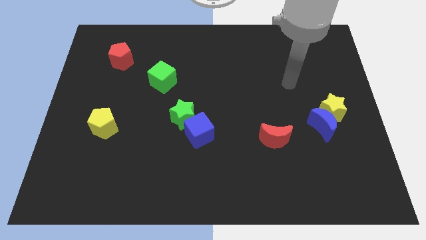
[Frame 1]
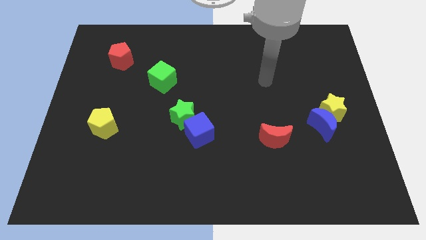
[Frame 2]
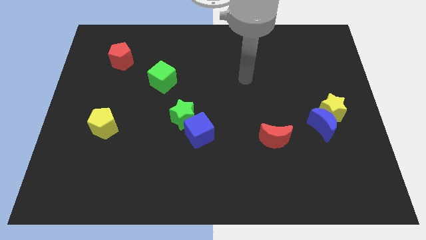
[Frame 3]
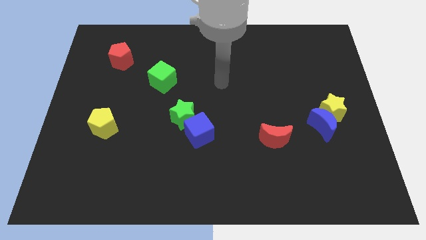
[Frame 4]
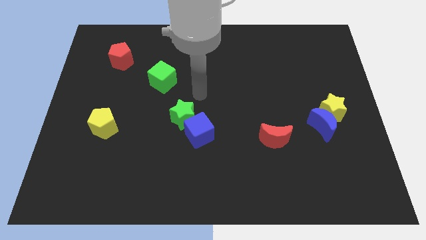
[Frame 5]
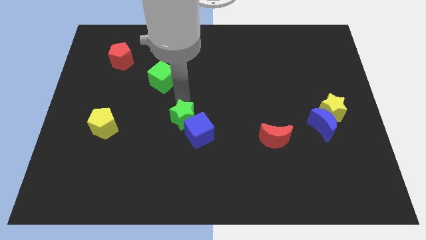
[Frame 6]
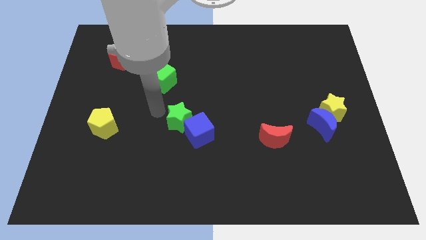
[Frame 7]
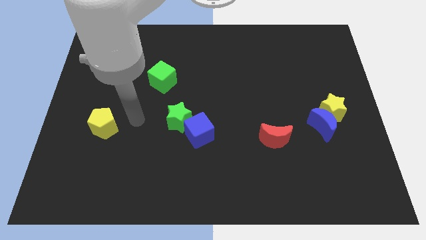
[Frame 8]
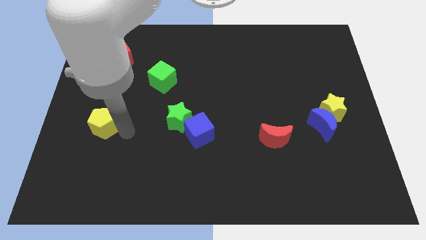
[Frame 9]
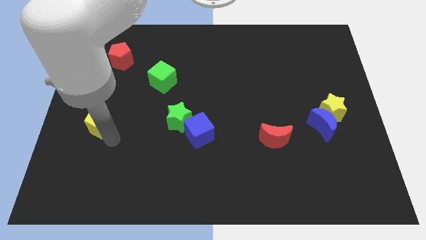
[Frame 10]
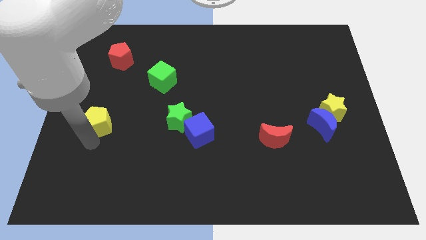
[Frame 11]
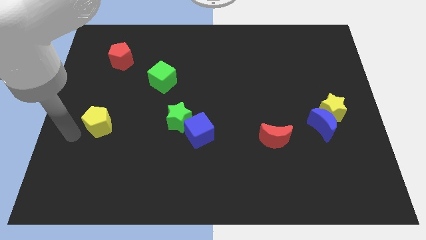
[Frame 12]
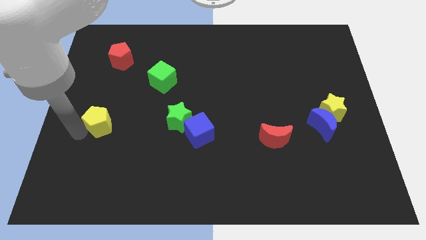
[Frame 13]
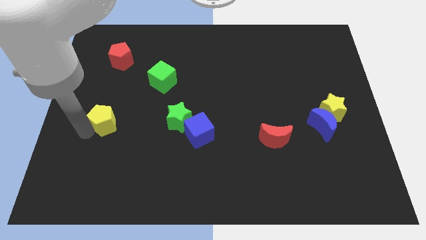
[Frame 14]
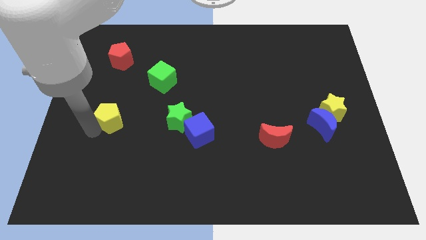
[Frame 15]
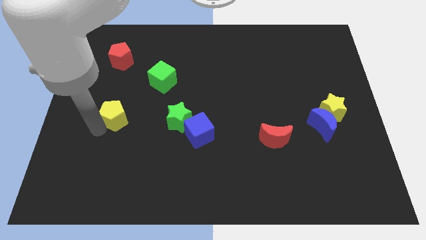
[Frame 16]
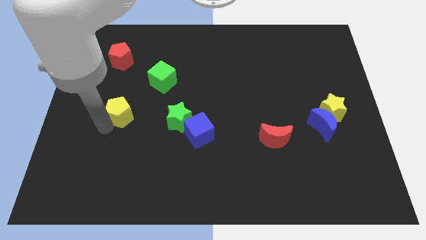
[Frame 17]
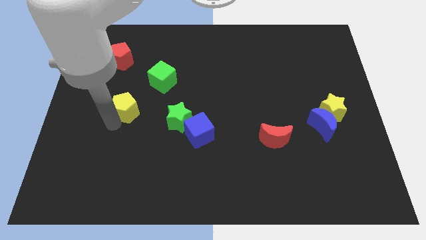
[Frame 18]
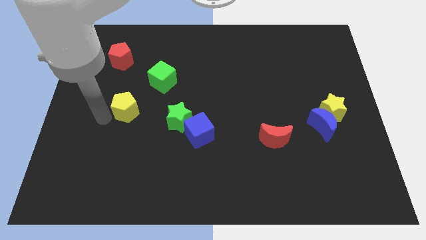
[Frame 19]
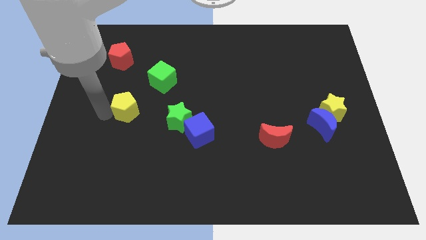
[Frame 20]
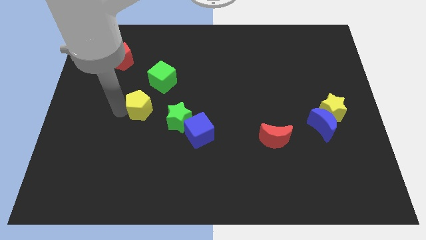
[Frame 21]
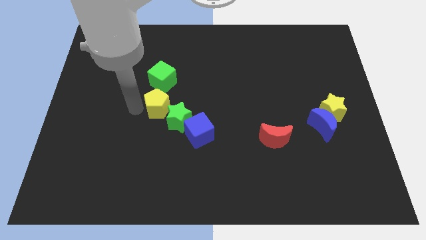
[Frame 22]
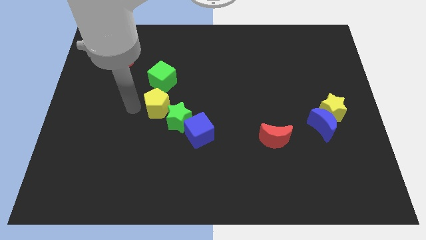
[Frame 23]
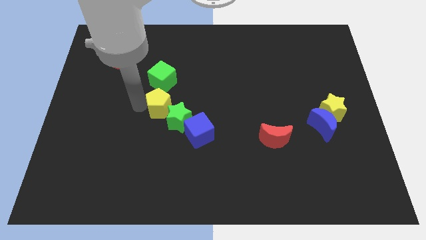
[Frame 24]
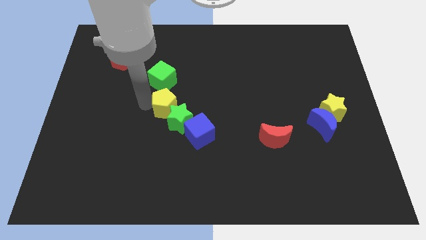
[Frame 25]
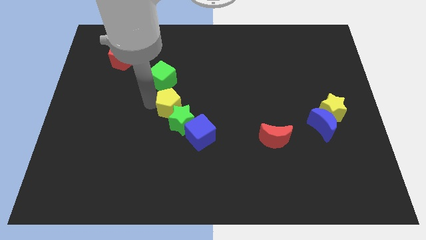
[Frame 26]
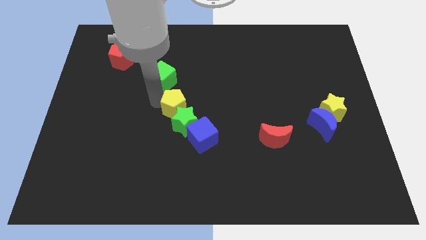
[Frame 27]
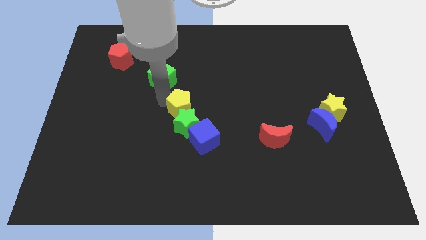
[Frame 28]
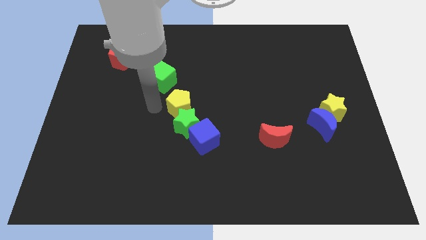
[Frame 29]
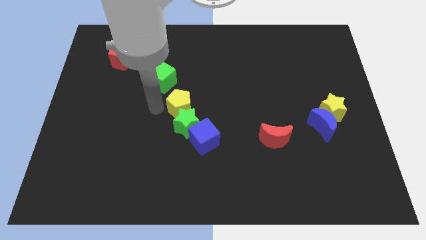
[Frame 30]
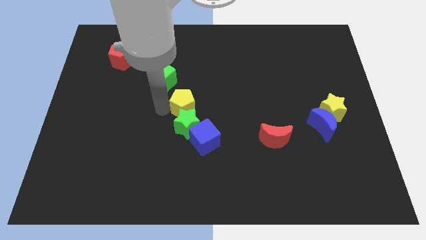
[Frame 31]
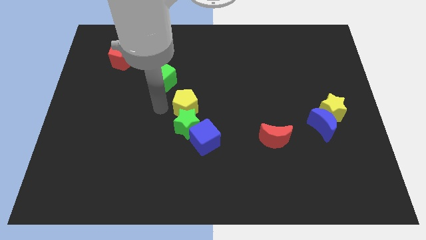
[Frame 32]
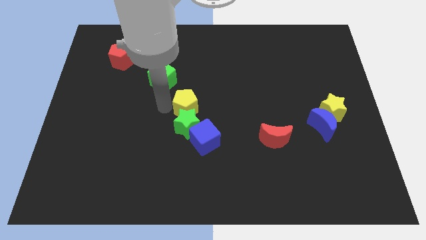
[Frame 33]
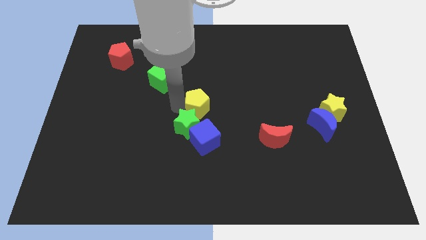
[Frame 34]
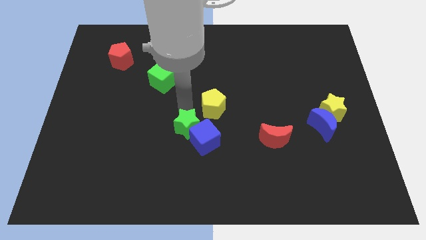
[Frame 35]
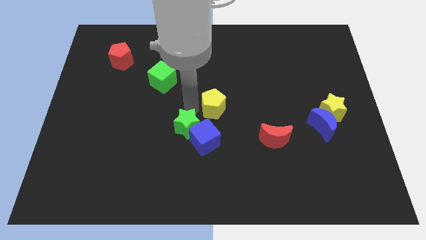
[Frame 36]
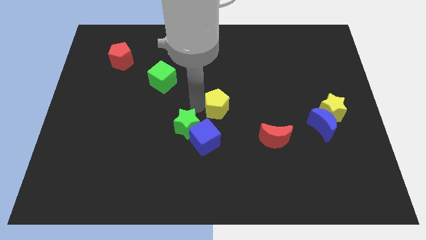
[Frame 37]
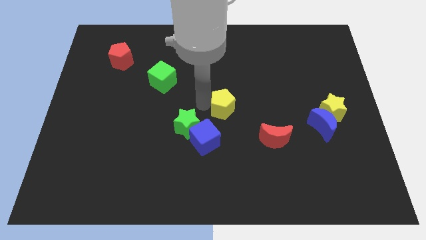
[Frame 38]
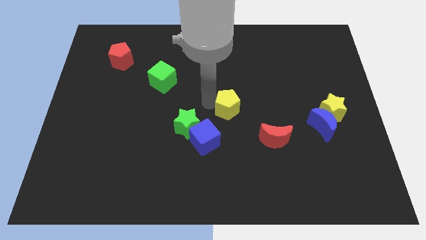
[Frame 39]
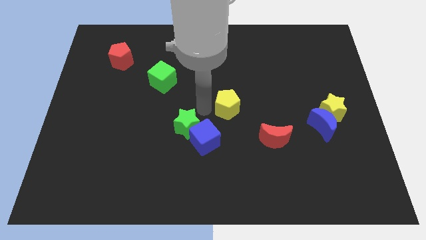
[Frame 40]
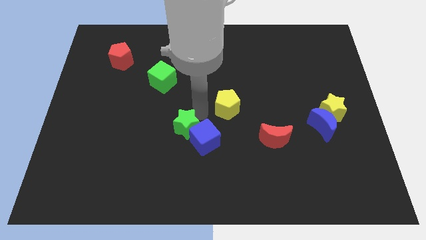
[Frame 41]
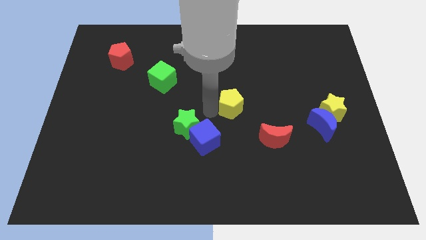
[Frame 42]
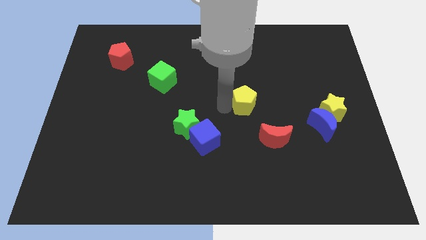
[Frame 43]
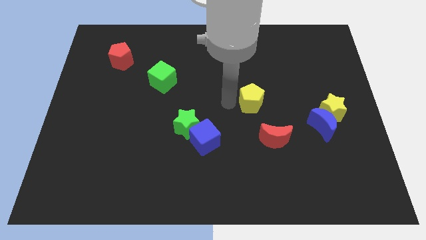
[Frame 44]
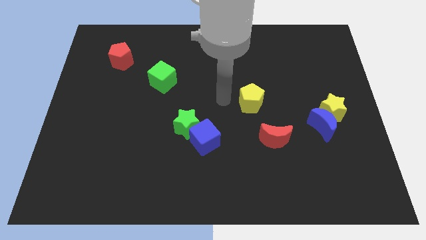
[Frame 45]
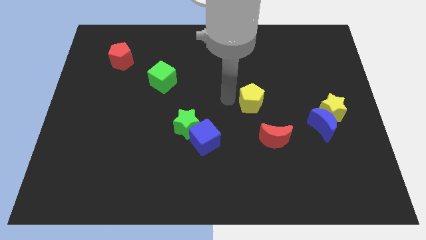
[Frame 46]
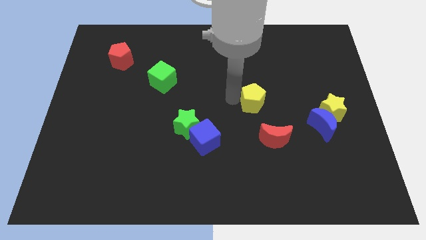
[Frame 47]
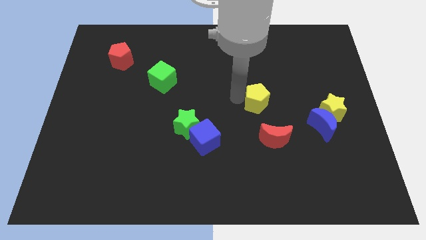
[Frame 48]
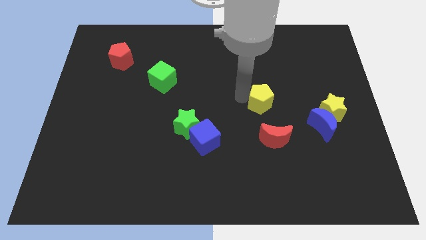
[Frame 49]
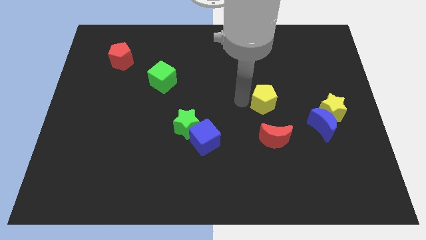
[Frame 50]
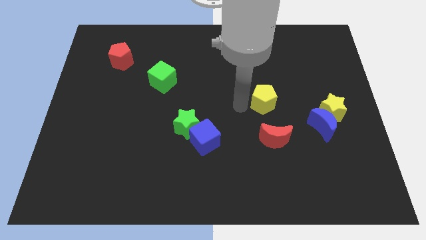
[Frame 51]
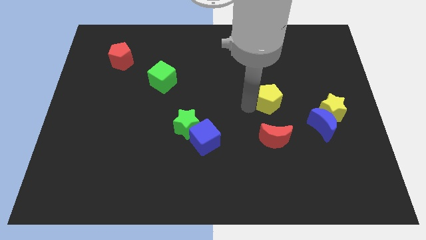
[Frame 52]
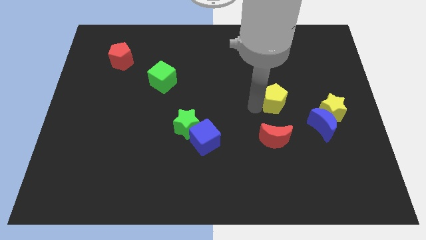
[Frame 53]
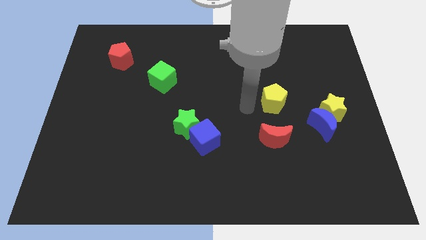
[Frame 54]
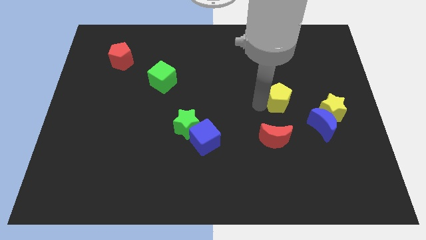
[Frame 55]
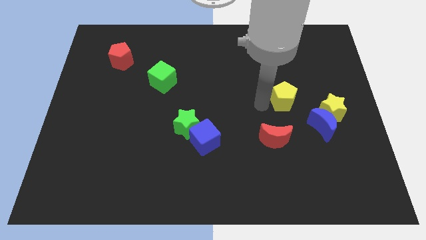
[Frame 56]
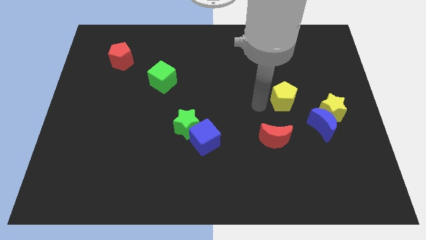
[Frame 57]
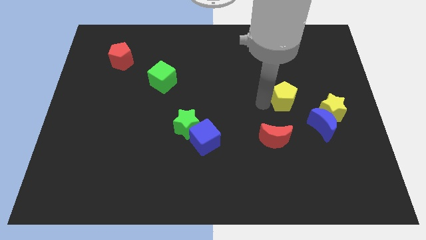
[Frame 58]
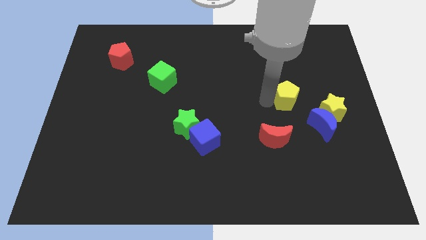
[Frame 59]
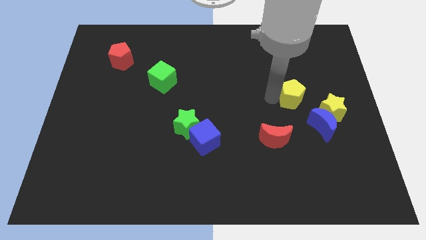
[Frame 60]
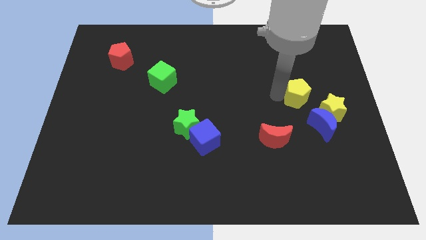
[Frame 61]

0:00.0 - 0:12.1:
put the yellow pentagon above the blue moon

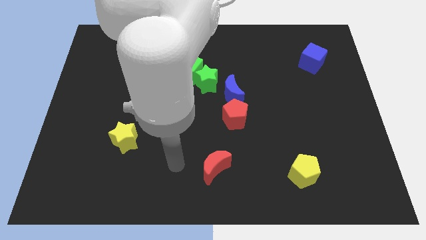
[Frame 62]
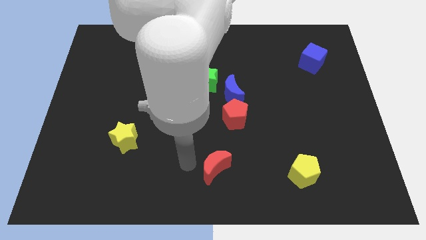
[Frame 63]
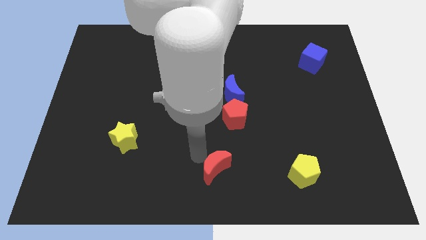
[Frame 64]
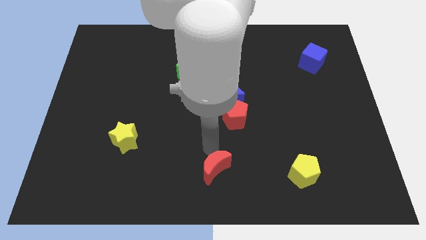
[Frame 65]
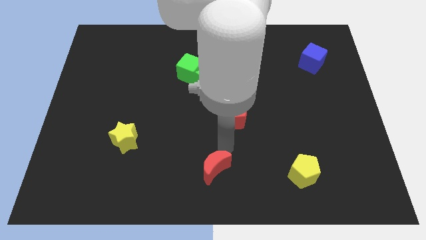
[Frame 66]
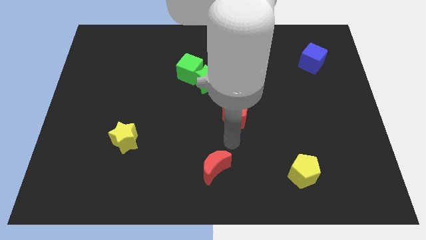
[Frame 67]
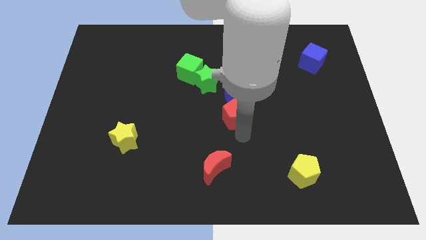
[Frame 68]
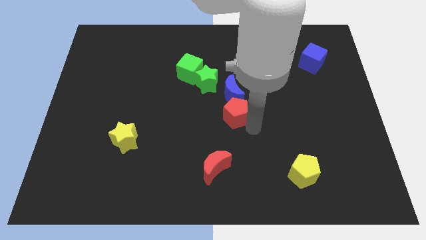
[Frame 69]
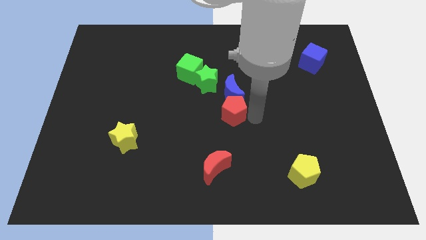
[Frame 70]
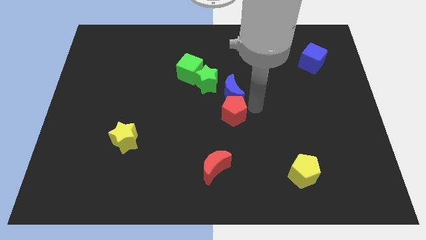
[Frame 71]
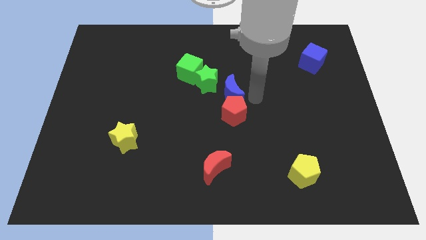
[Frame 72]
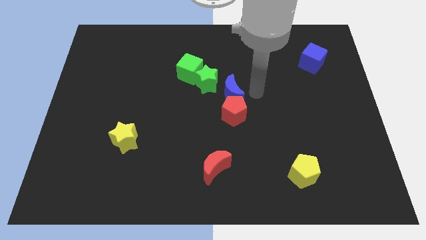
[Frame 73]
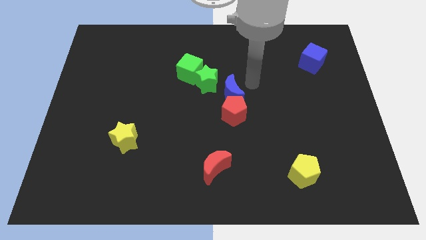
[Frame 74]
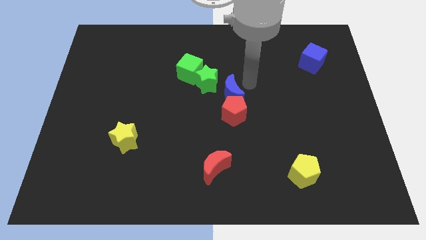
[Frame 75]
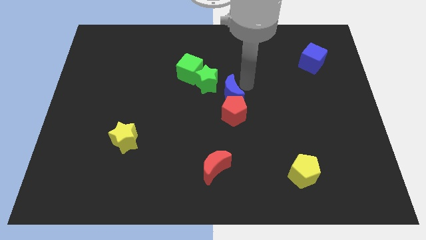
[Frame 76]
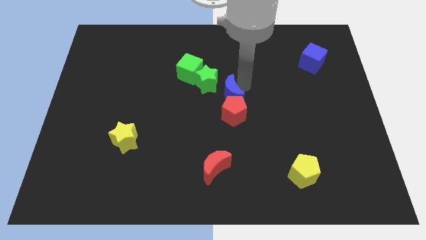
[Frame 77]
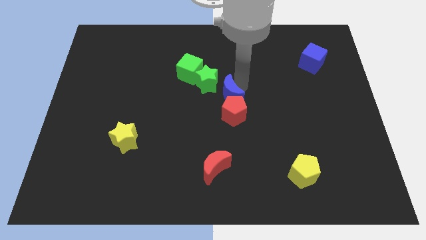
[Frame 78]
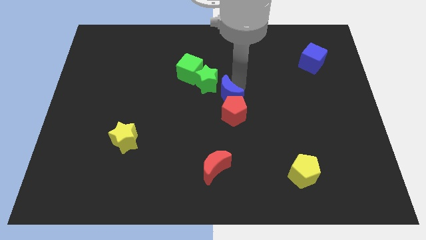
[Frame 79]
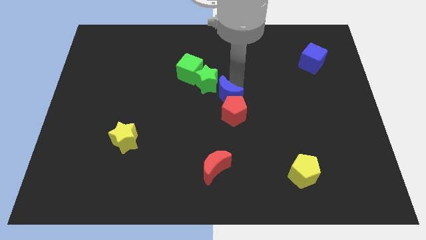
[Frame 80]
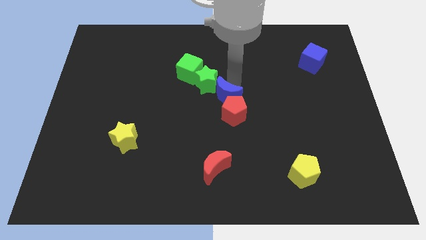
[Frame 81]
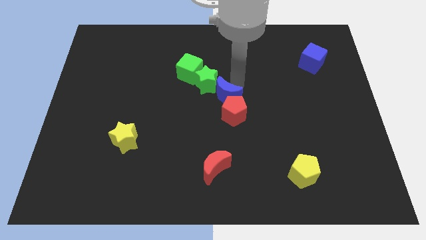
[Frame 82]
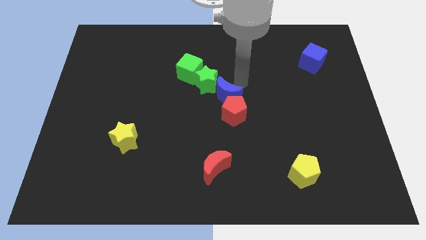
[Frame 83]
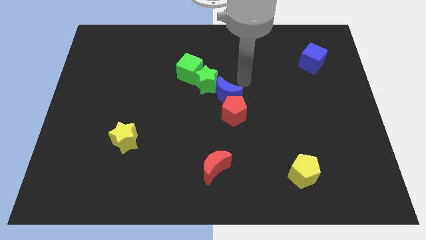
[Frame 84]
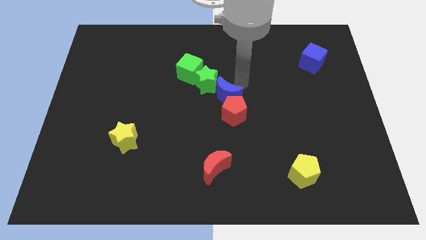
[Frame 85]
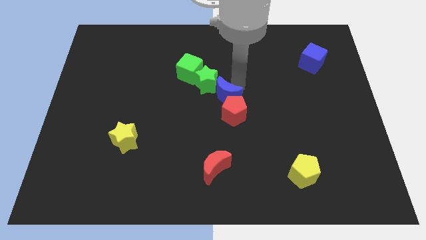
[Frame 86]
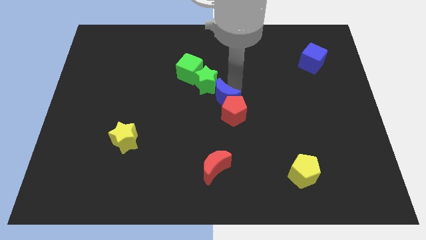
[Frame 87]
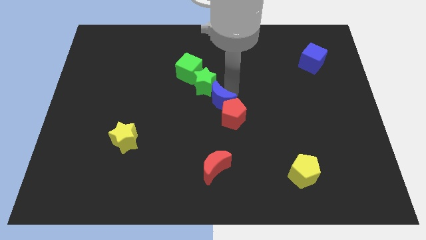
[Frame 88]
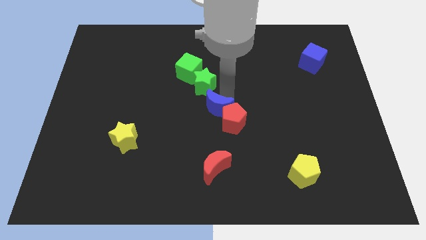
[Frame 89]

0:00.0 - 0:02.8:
put the blue moon just left of the red pentagon
